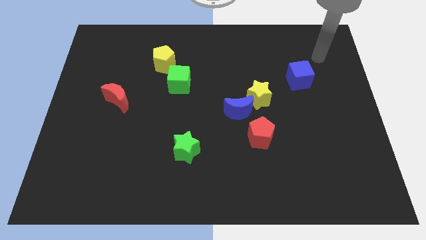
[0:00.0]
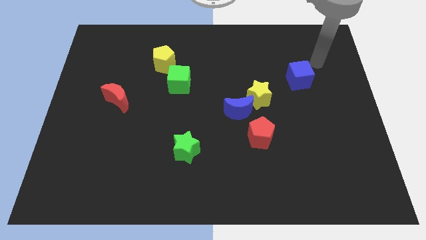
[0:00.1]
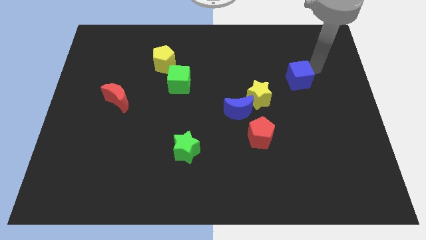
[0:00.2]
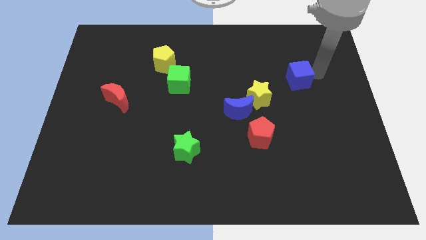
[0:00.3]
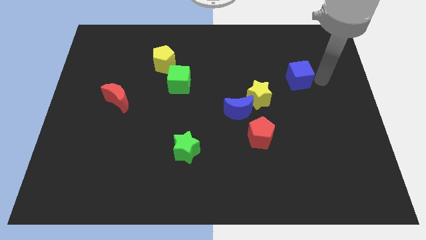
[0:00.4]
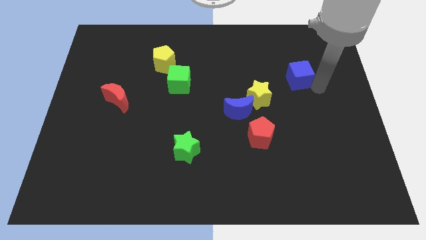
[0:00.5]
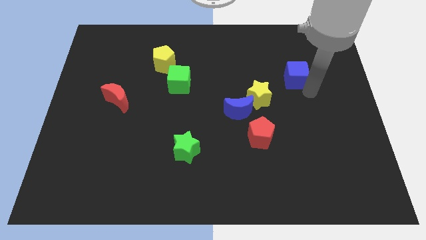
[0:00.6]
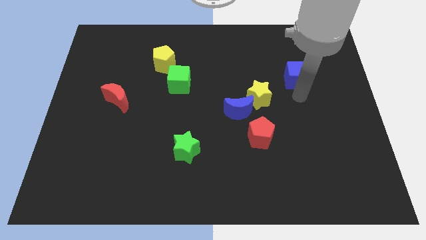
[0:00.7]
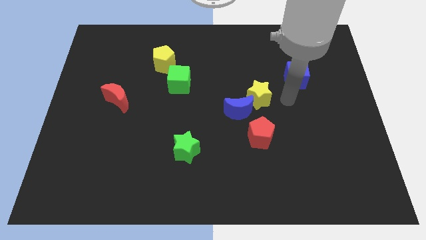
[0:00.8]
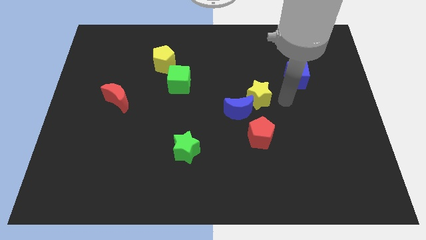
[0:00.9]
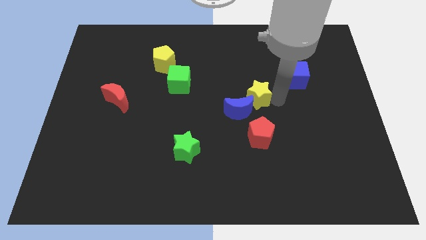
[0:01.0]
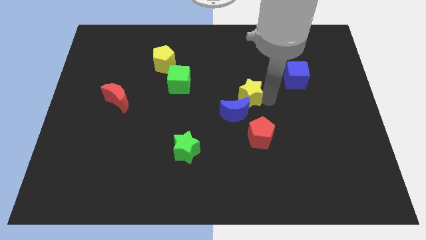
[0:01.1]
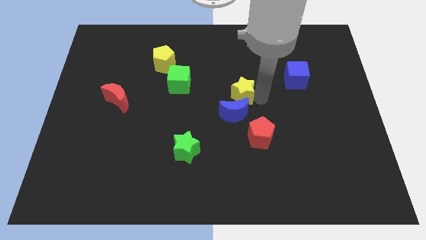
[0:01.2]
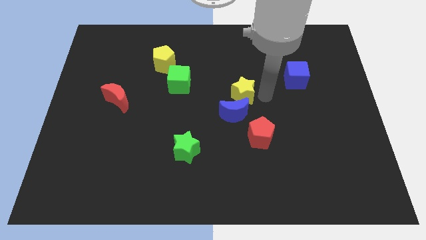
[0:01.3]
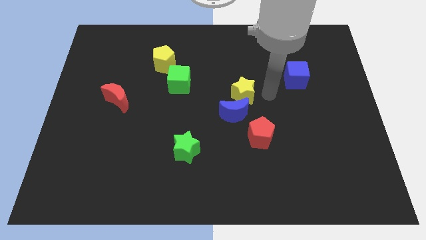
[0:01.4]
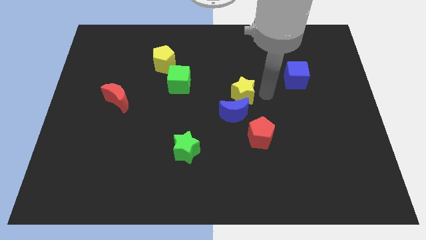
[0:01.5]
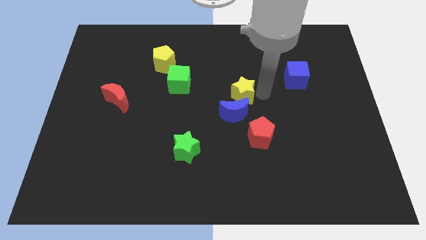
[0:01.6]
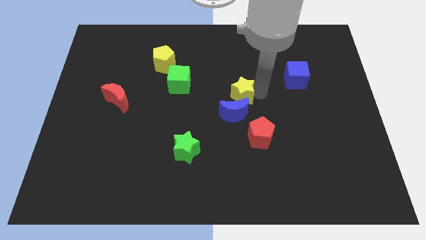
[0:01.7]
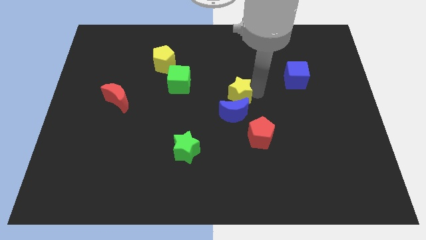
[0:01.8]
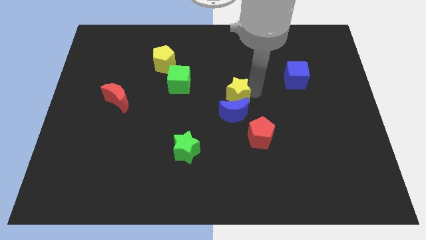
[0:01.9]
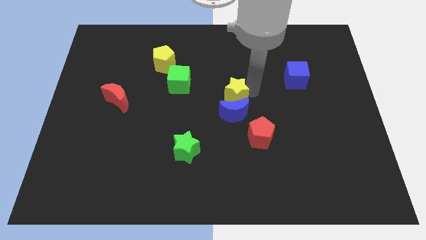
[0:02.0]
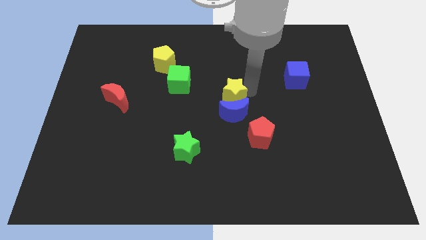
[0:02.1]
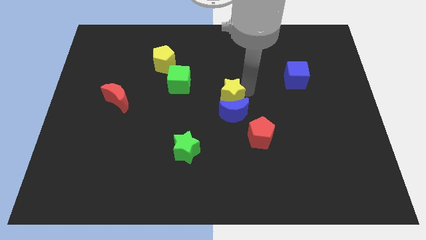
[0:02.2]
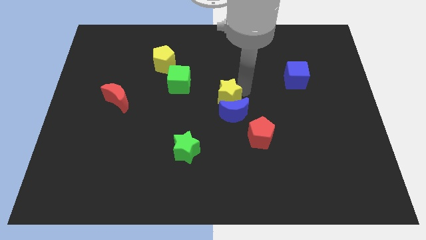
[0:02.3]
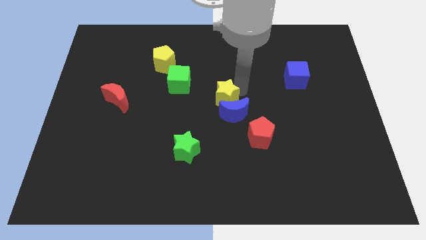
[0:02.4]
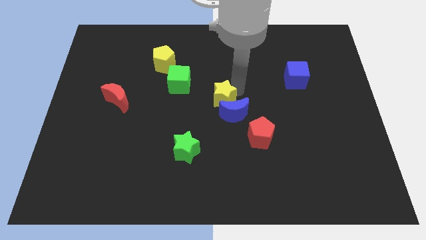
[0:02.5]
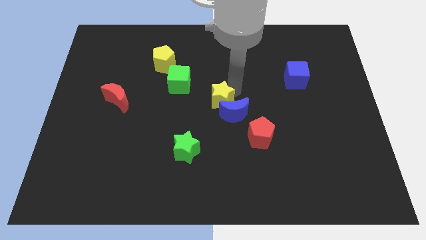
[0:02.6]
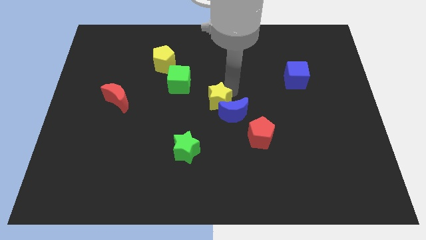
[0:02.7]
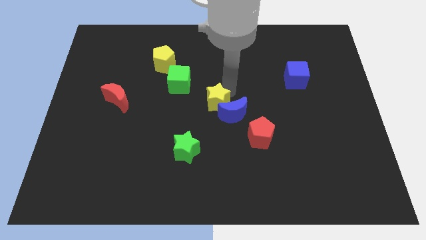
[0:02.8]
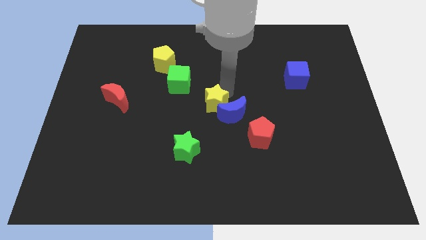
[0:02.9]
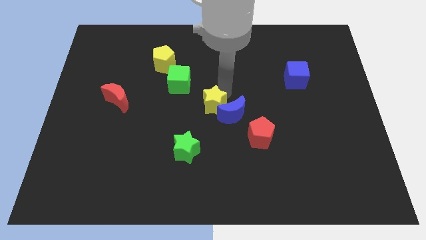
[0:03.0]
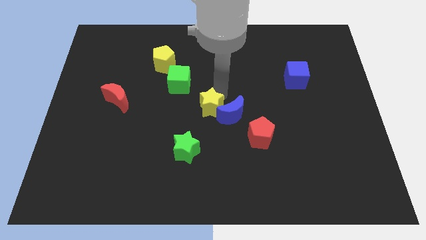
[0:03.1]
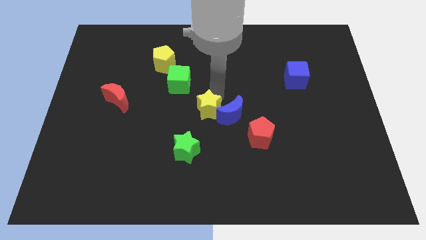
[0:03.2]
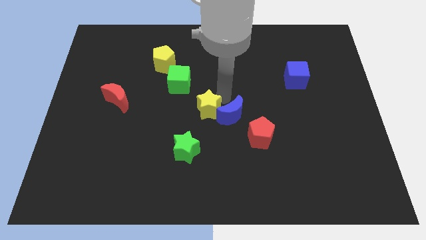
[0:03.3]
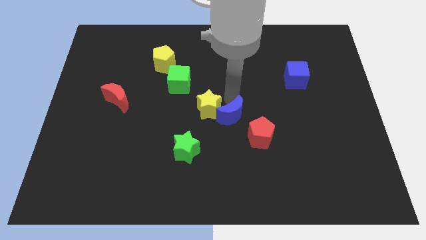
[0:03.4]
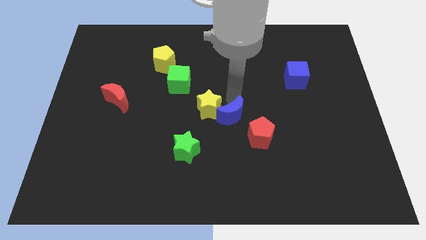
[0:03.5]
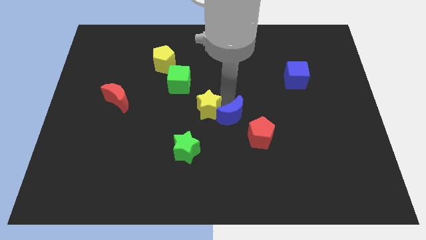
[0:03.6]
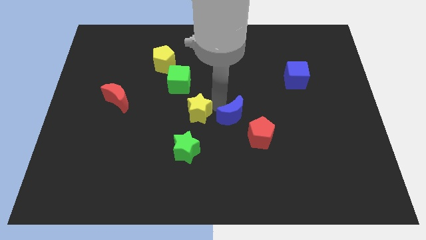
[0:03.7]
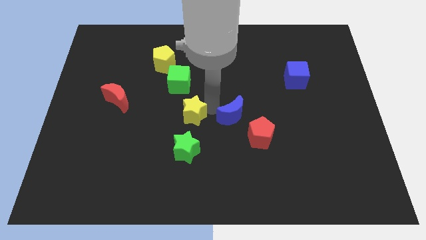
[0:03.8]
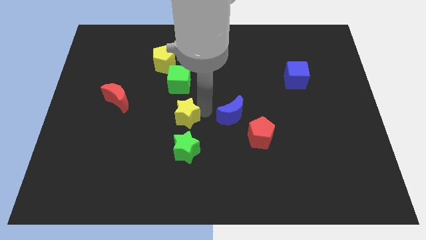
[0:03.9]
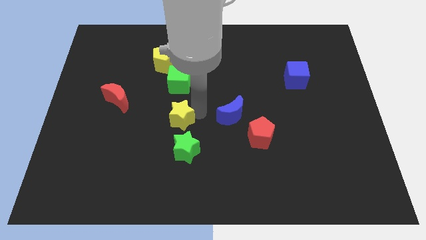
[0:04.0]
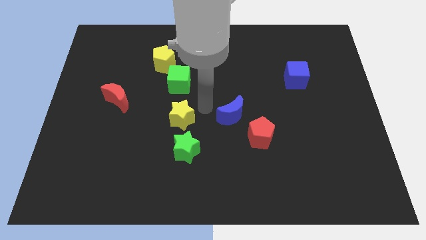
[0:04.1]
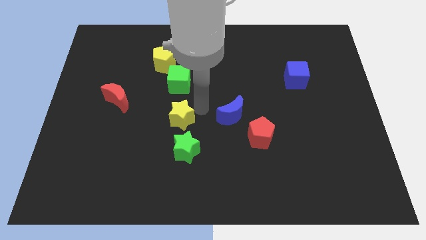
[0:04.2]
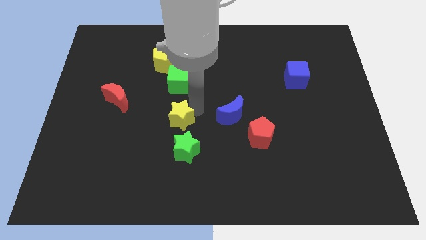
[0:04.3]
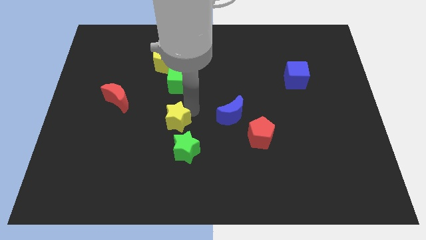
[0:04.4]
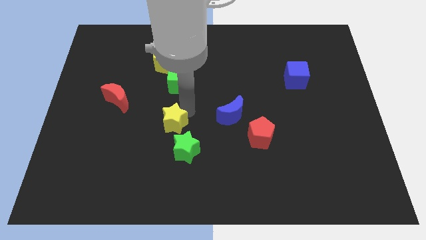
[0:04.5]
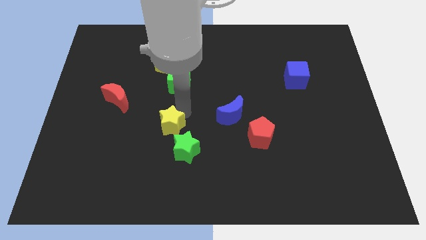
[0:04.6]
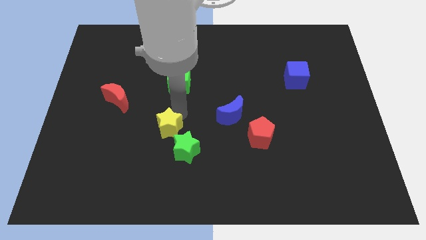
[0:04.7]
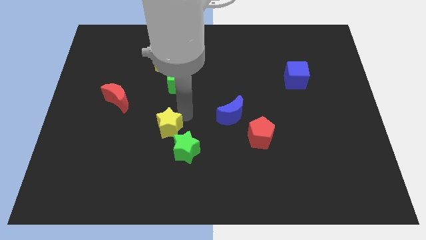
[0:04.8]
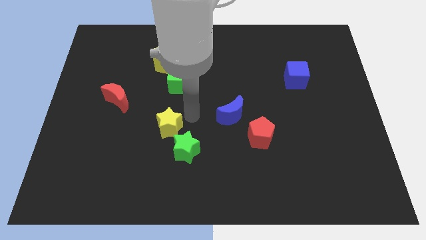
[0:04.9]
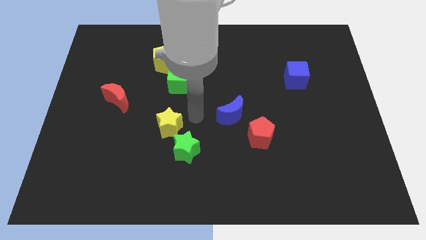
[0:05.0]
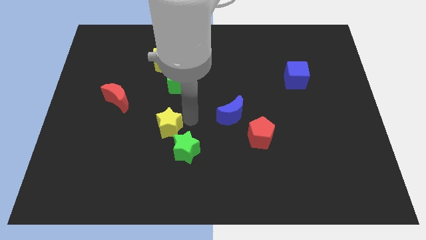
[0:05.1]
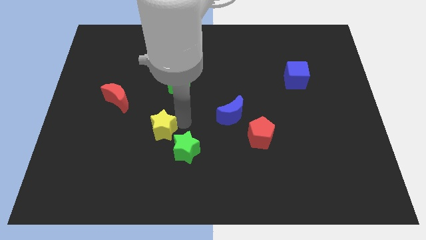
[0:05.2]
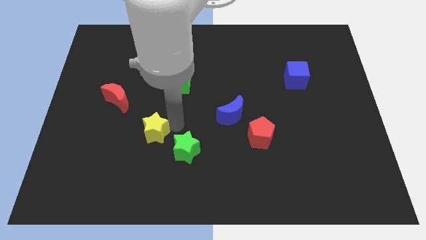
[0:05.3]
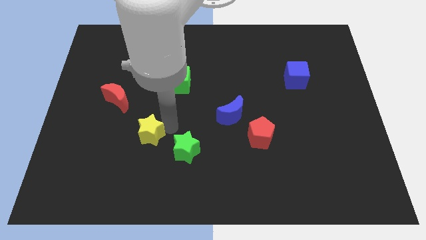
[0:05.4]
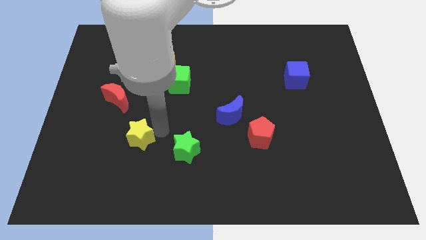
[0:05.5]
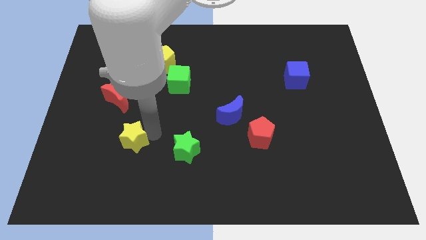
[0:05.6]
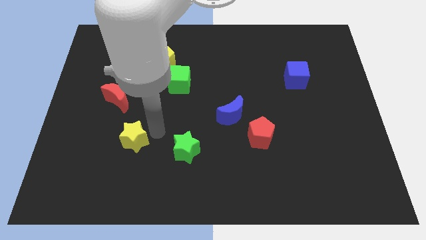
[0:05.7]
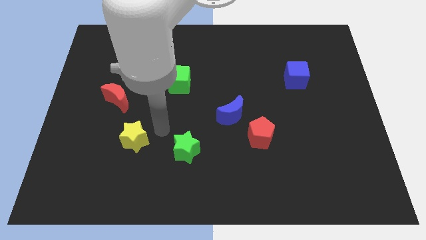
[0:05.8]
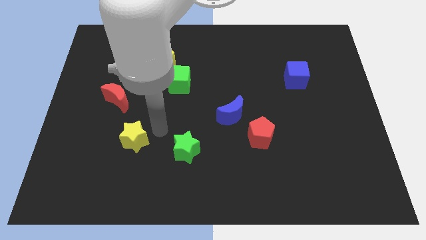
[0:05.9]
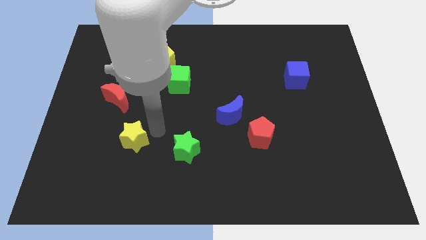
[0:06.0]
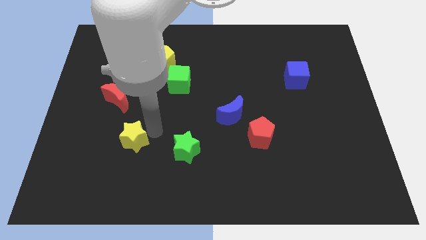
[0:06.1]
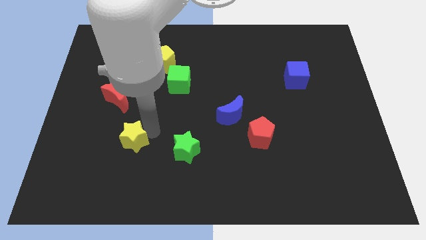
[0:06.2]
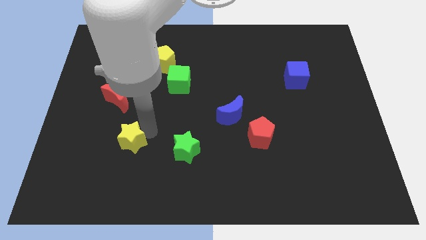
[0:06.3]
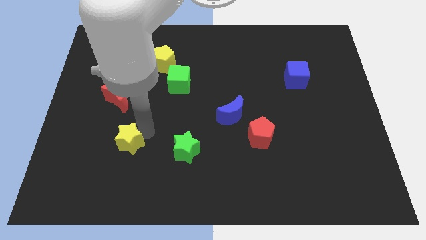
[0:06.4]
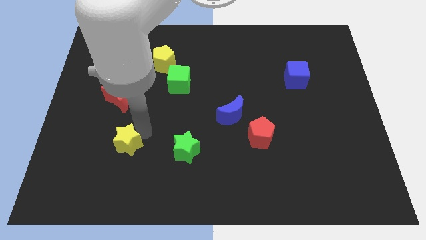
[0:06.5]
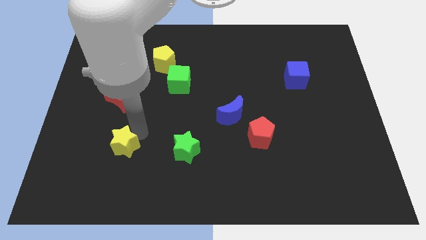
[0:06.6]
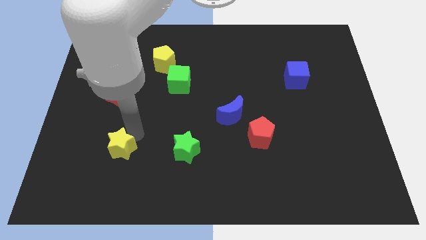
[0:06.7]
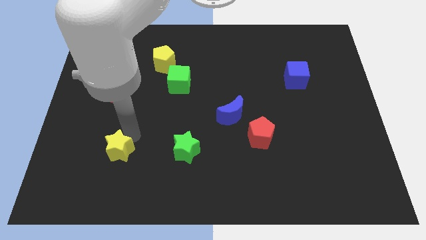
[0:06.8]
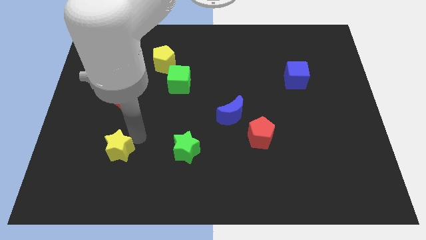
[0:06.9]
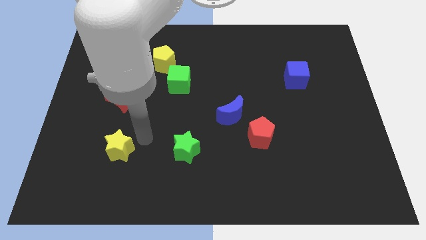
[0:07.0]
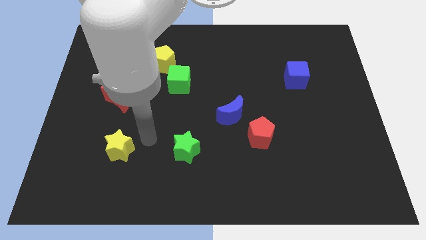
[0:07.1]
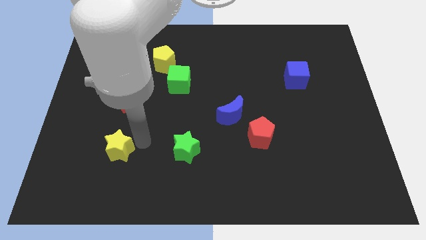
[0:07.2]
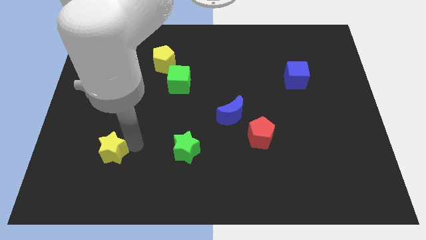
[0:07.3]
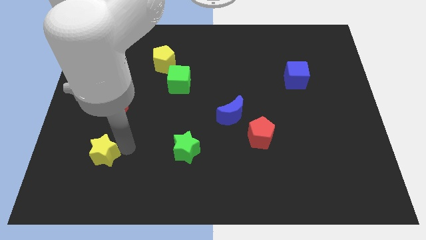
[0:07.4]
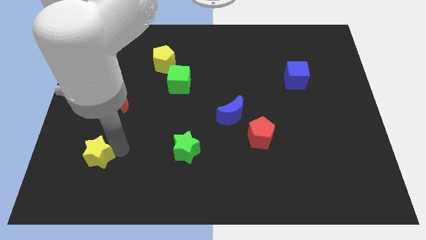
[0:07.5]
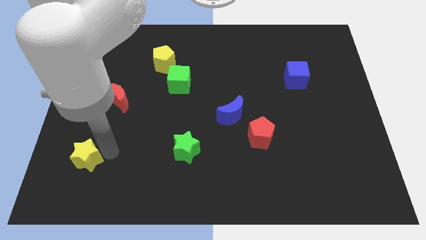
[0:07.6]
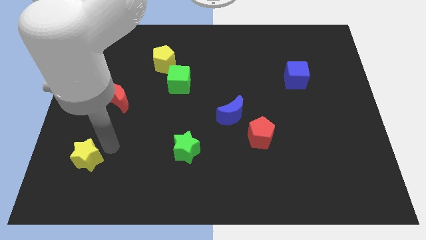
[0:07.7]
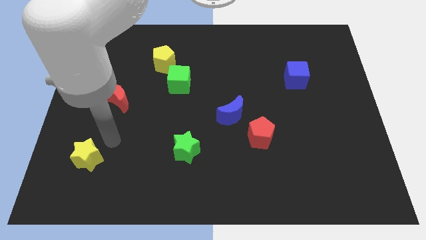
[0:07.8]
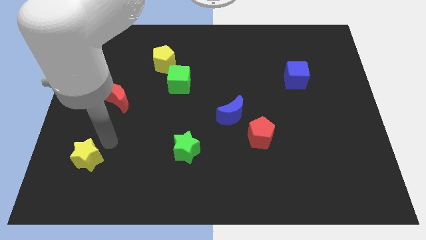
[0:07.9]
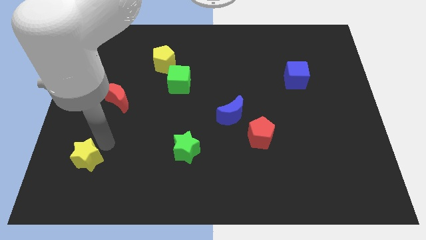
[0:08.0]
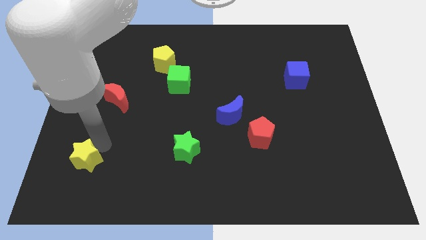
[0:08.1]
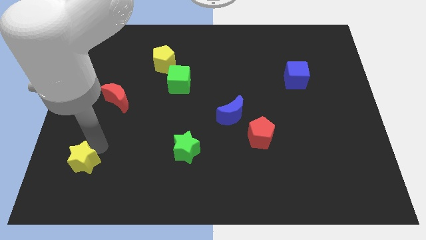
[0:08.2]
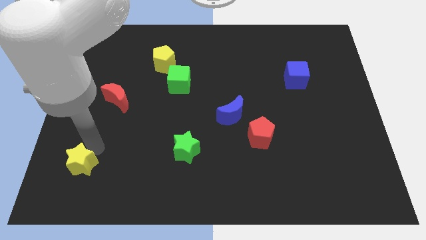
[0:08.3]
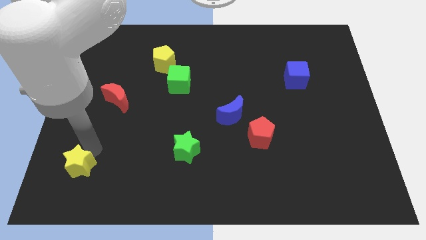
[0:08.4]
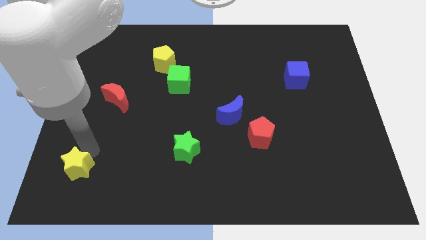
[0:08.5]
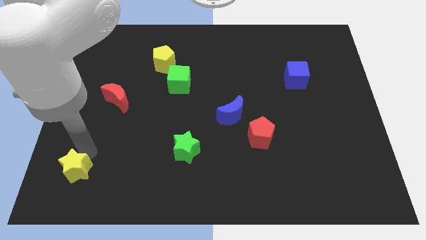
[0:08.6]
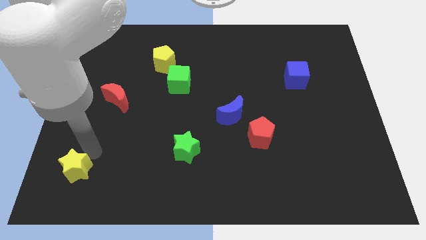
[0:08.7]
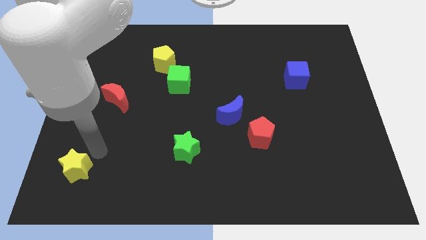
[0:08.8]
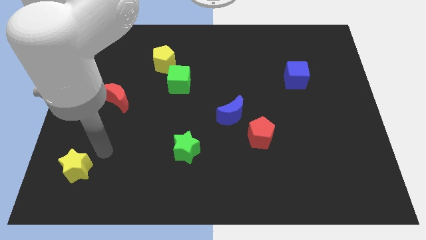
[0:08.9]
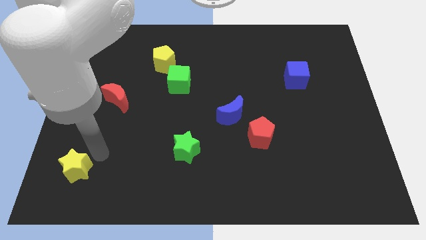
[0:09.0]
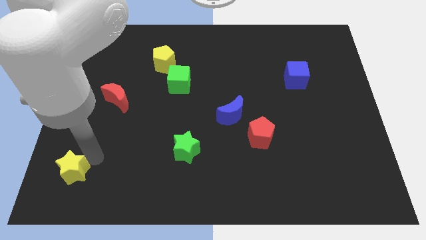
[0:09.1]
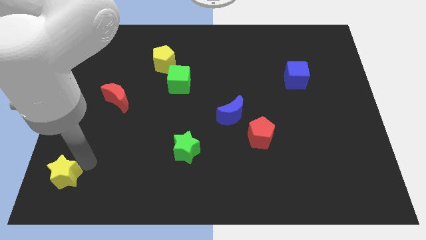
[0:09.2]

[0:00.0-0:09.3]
push the yellow star to the bottom left corner
